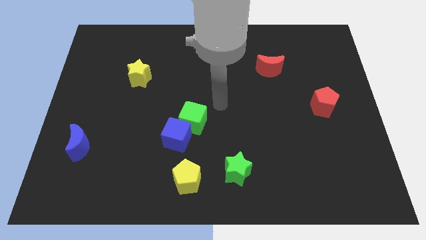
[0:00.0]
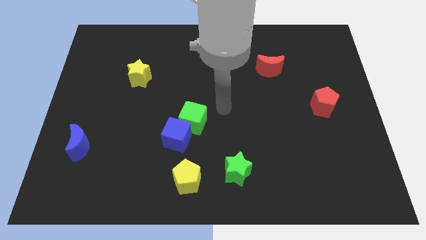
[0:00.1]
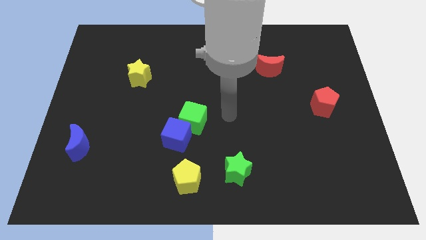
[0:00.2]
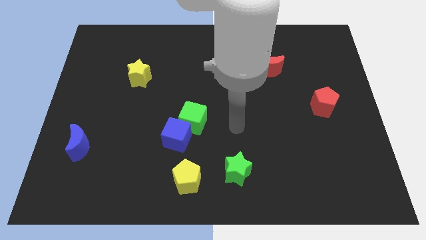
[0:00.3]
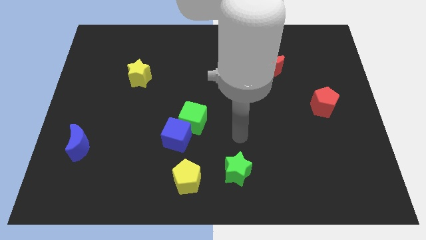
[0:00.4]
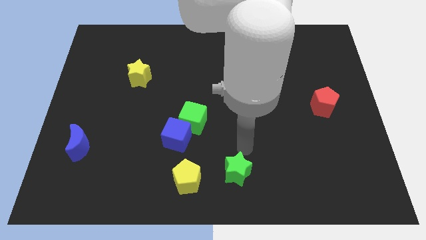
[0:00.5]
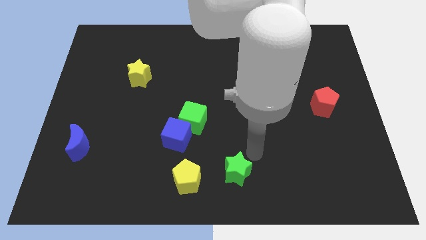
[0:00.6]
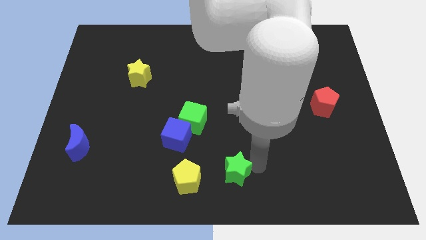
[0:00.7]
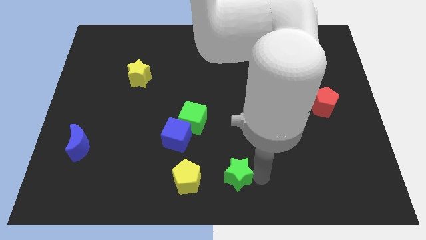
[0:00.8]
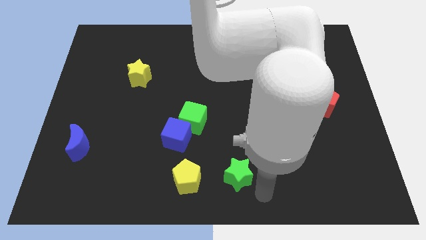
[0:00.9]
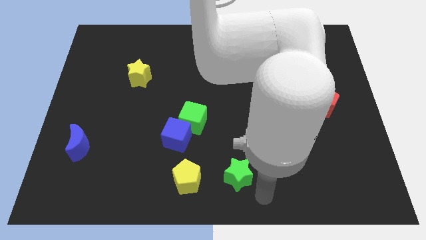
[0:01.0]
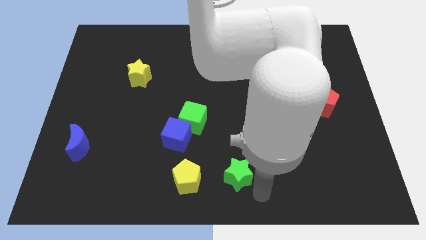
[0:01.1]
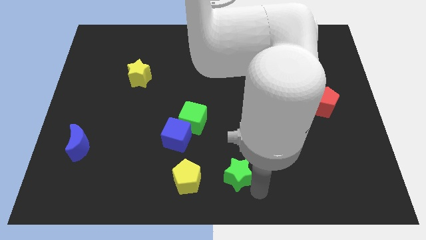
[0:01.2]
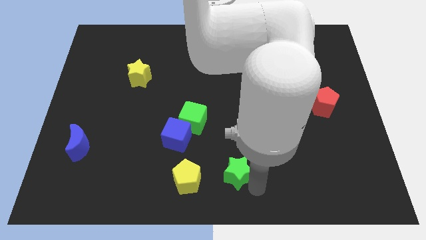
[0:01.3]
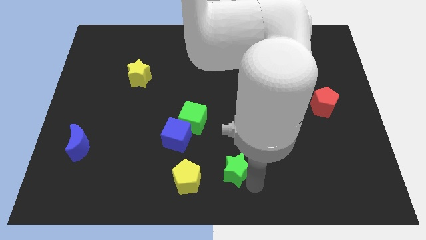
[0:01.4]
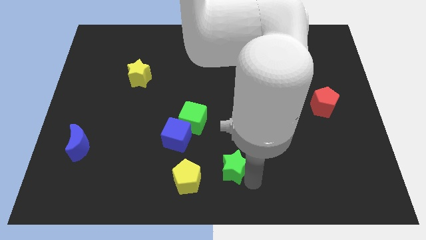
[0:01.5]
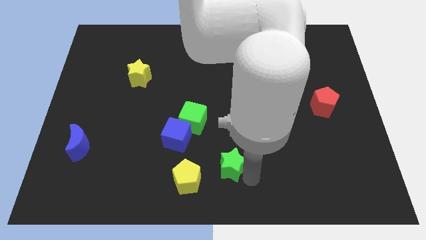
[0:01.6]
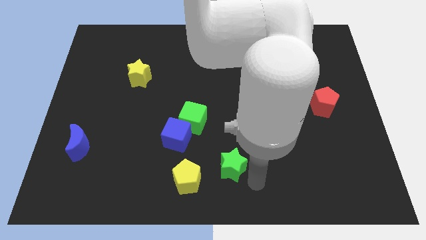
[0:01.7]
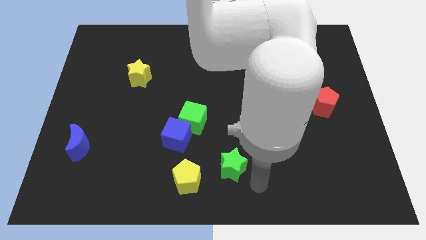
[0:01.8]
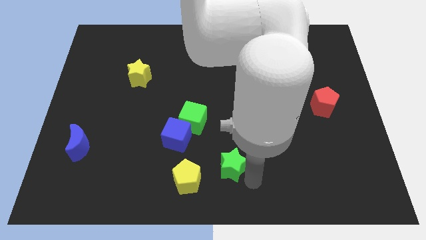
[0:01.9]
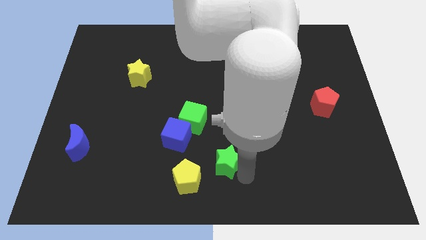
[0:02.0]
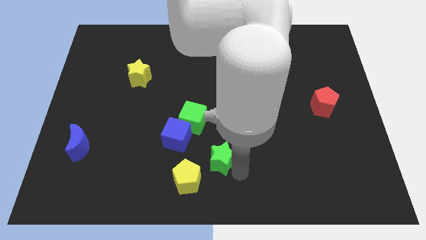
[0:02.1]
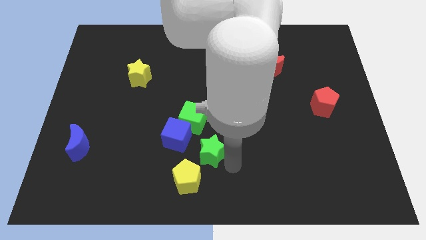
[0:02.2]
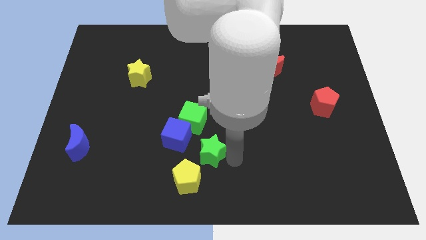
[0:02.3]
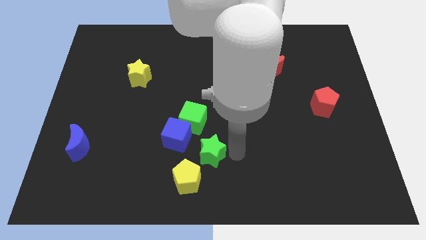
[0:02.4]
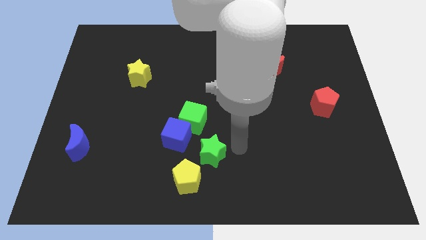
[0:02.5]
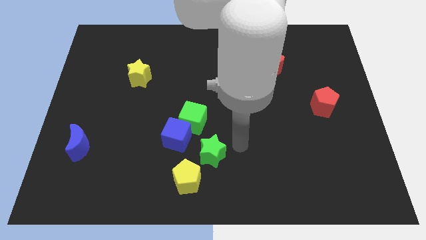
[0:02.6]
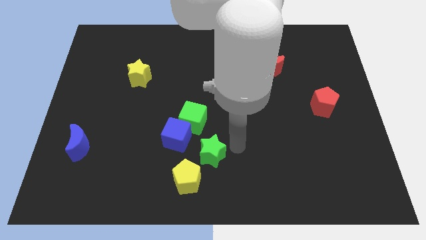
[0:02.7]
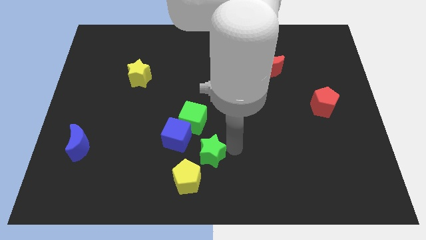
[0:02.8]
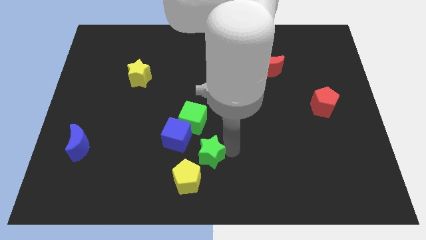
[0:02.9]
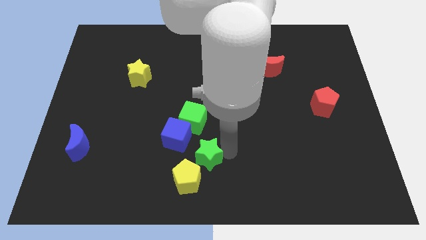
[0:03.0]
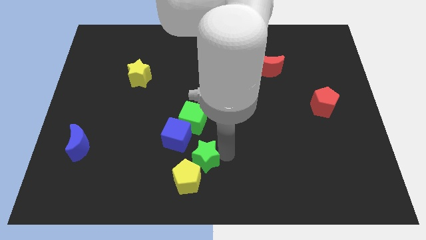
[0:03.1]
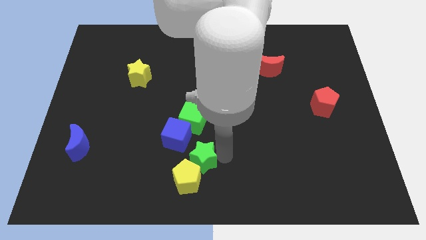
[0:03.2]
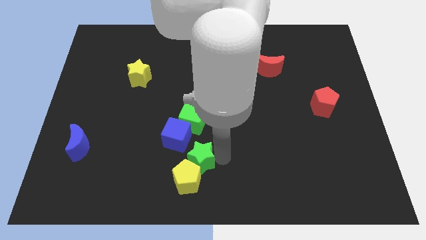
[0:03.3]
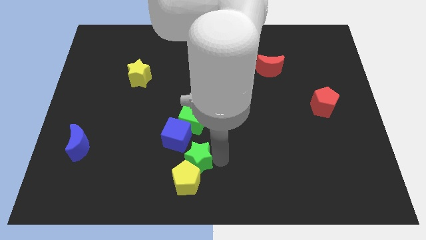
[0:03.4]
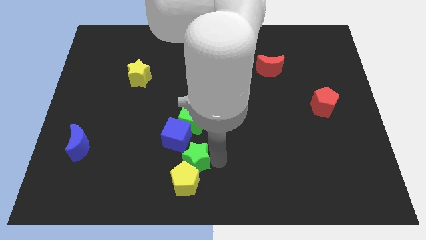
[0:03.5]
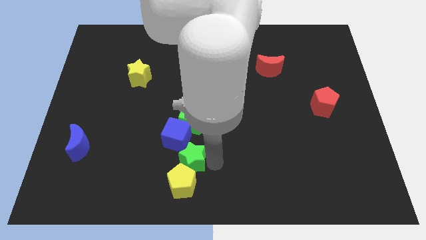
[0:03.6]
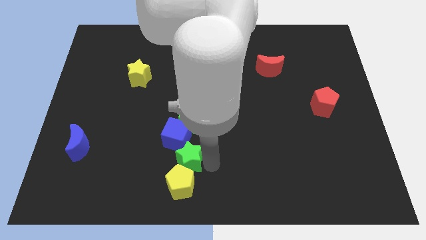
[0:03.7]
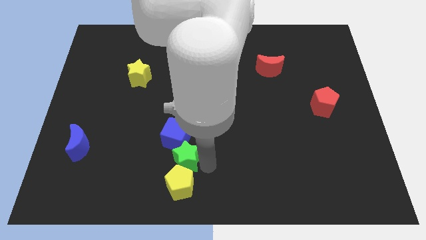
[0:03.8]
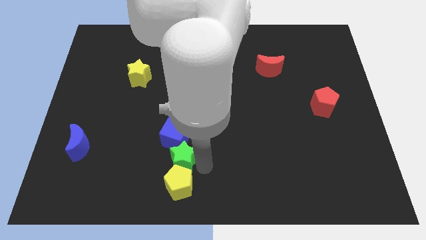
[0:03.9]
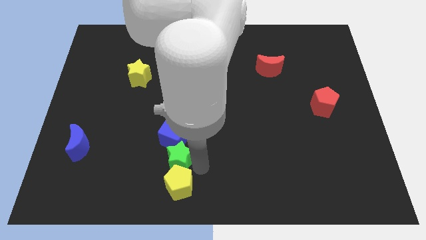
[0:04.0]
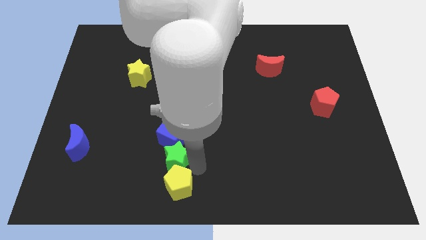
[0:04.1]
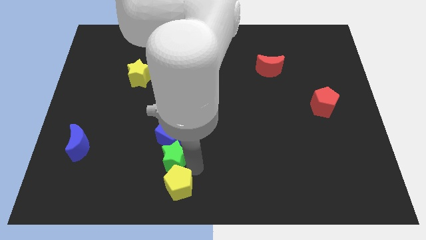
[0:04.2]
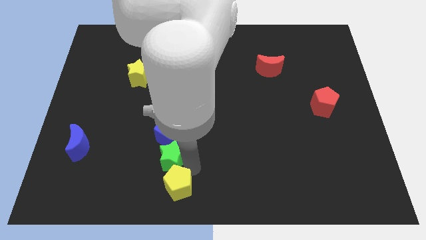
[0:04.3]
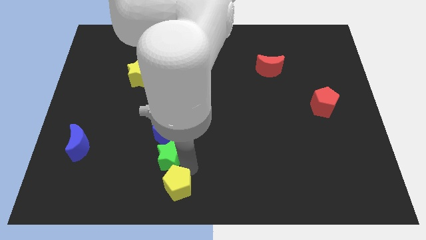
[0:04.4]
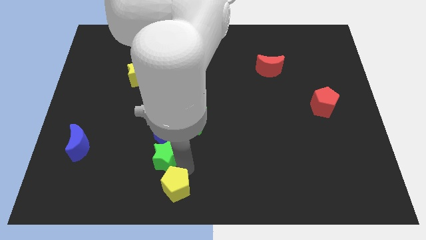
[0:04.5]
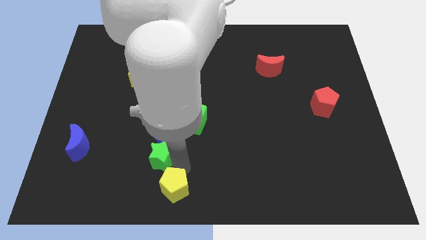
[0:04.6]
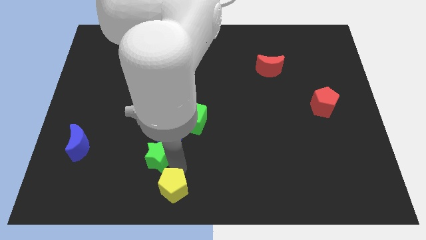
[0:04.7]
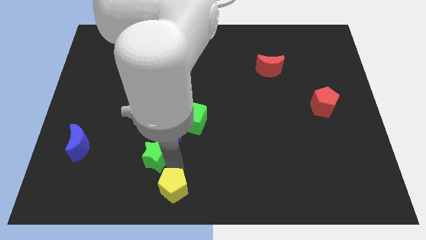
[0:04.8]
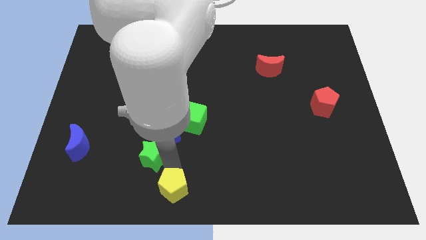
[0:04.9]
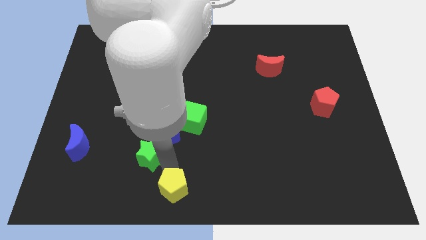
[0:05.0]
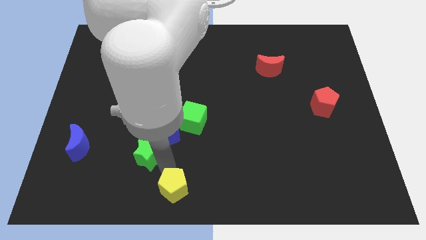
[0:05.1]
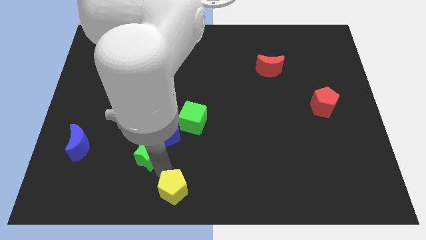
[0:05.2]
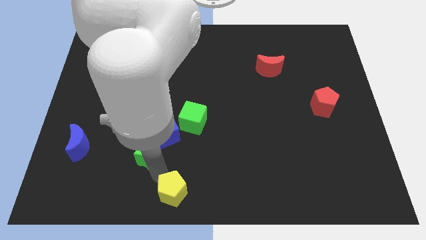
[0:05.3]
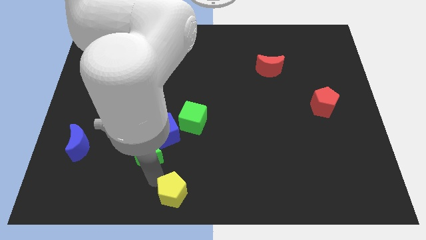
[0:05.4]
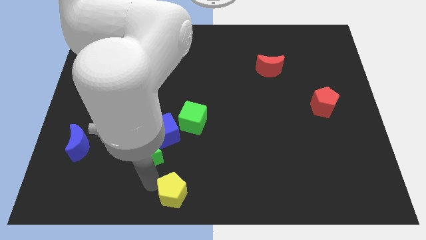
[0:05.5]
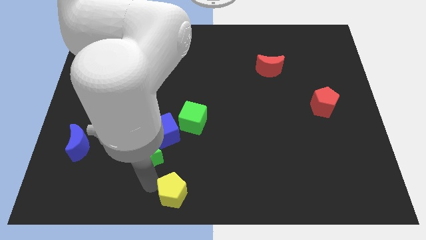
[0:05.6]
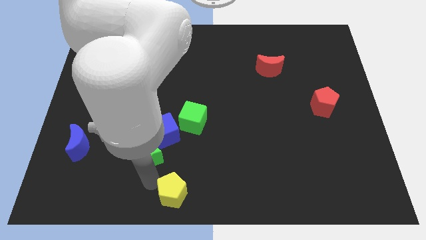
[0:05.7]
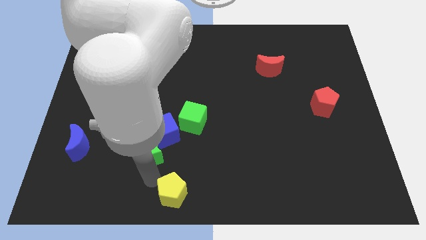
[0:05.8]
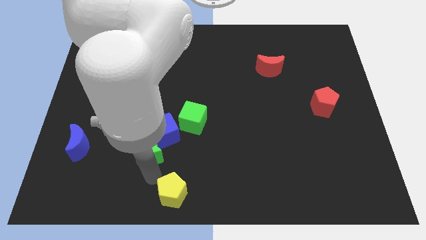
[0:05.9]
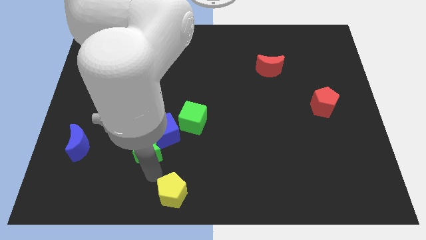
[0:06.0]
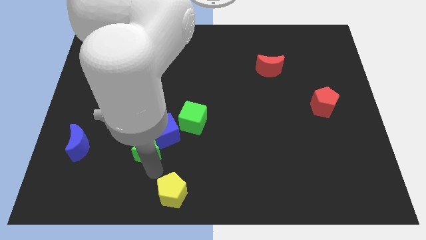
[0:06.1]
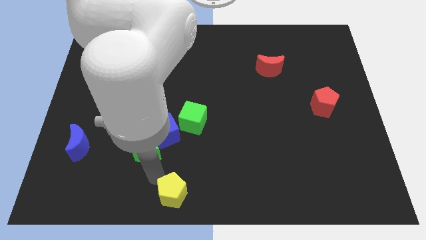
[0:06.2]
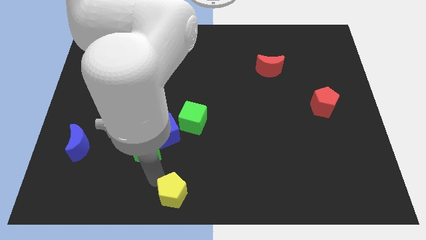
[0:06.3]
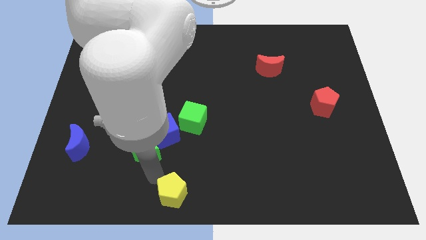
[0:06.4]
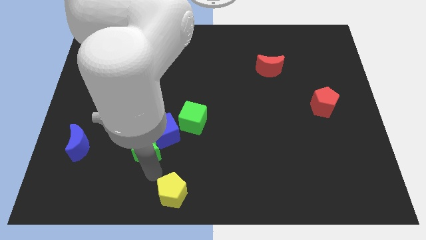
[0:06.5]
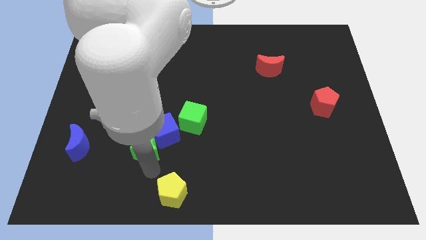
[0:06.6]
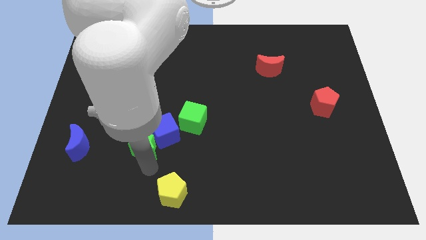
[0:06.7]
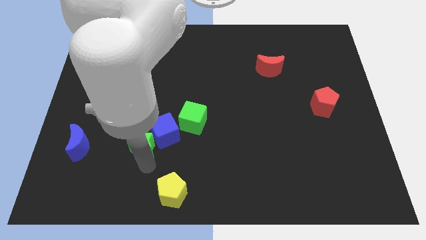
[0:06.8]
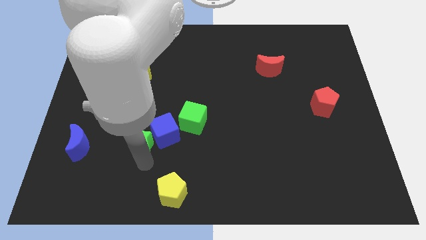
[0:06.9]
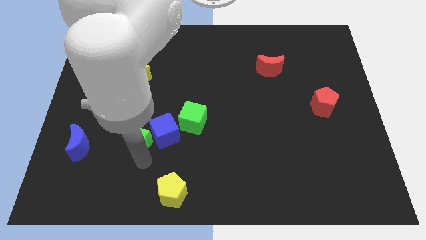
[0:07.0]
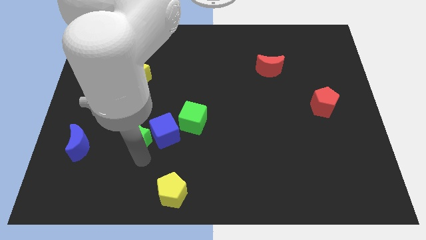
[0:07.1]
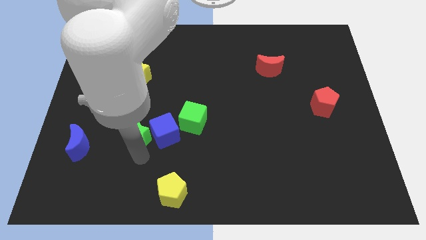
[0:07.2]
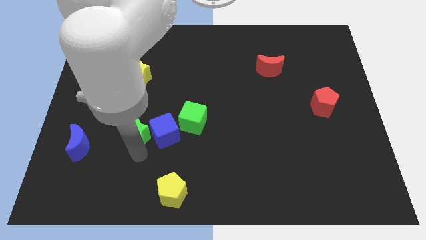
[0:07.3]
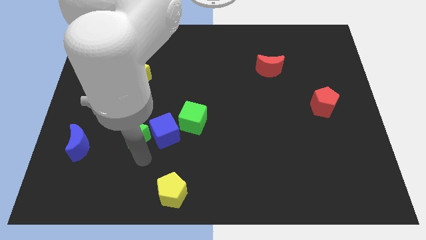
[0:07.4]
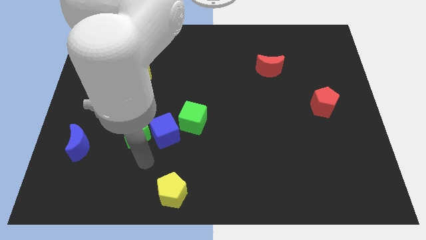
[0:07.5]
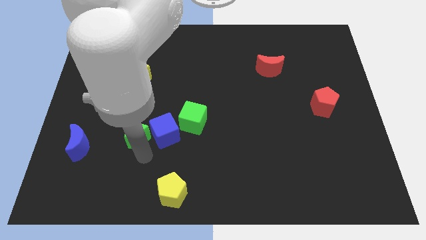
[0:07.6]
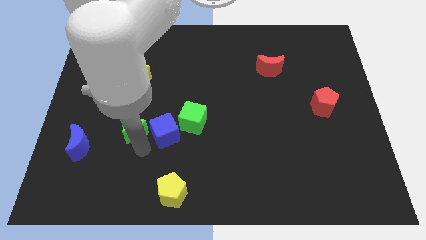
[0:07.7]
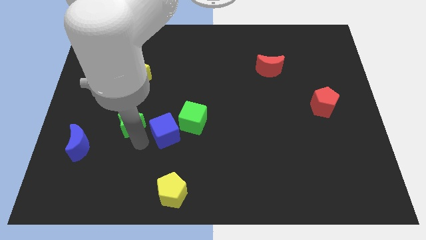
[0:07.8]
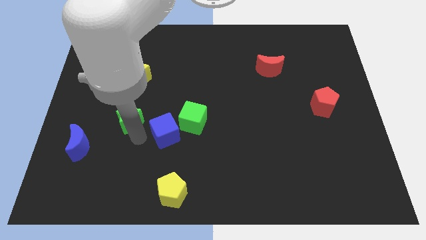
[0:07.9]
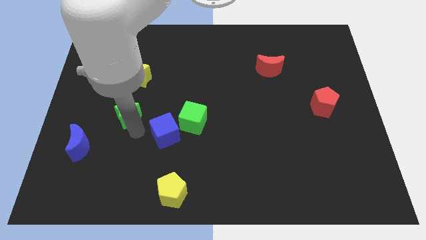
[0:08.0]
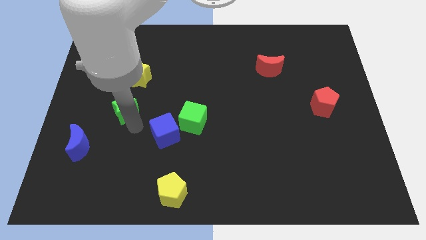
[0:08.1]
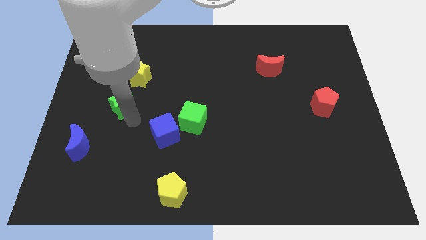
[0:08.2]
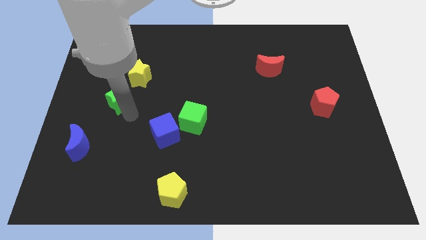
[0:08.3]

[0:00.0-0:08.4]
put the green star diagonally down and to the left of the yellow star
